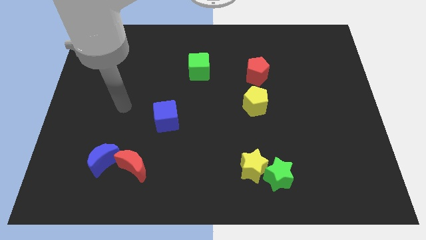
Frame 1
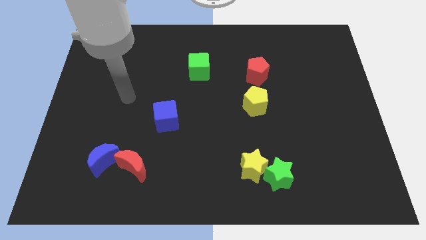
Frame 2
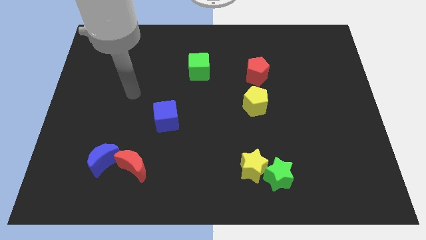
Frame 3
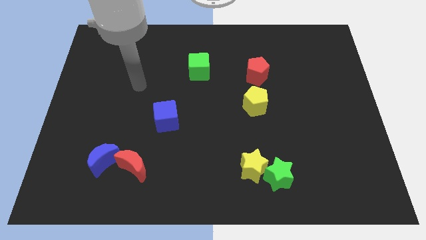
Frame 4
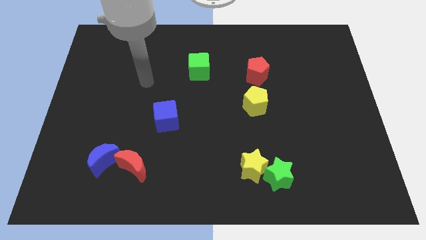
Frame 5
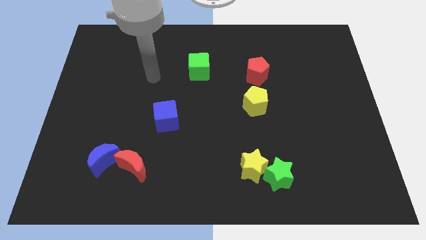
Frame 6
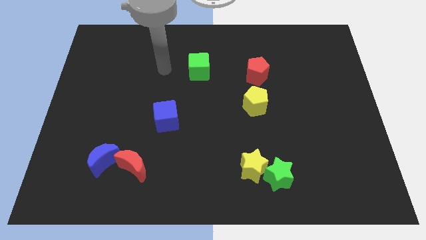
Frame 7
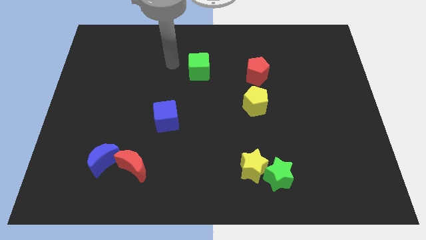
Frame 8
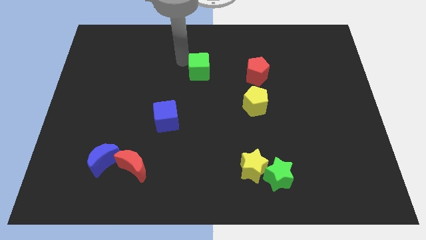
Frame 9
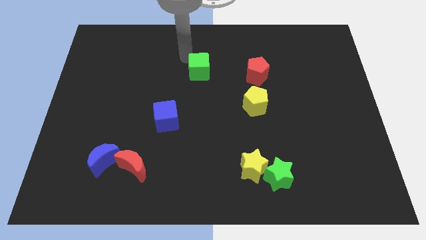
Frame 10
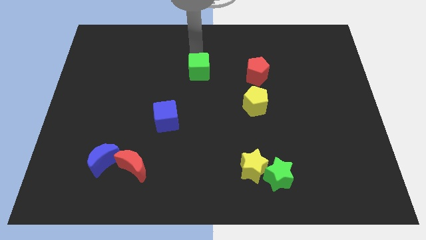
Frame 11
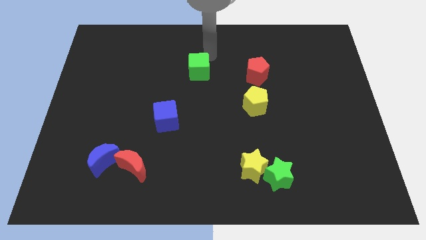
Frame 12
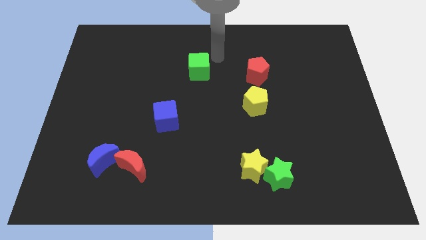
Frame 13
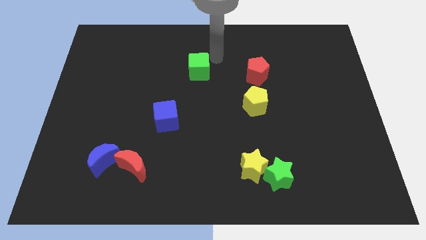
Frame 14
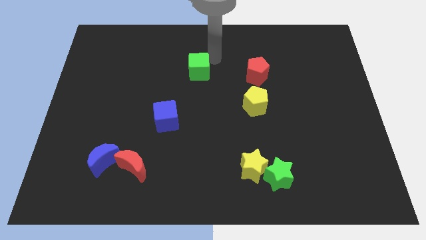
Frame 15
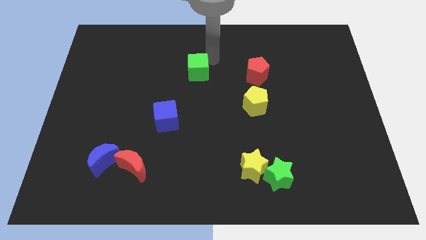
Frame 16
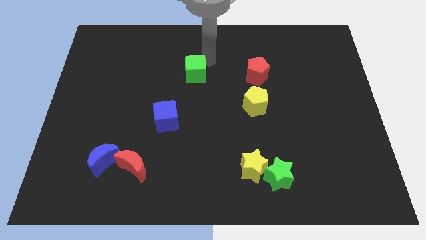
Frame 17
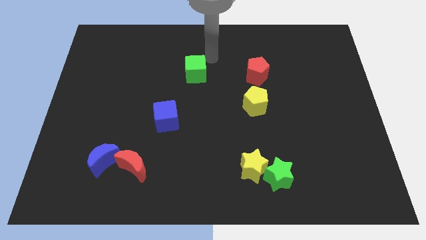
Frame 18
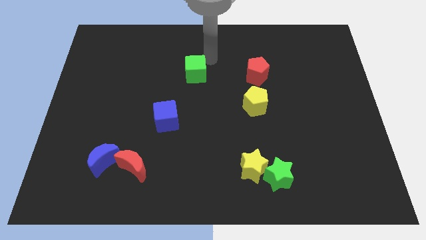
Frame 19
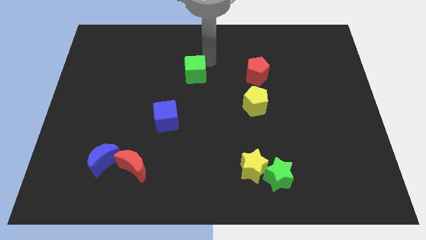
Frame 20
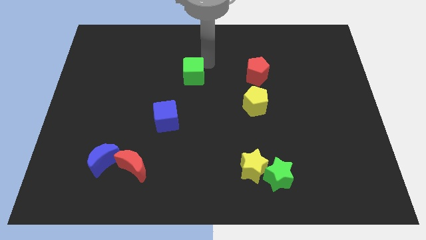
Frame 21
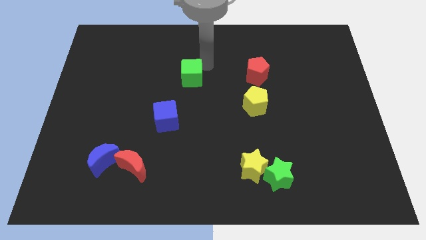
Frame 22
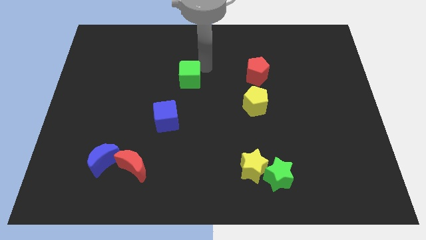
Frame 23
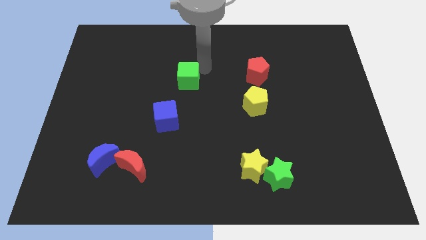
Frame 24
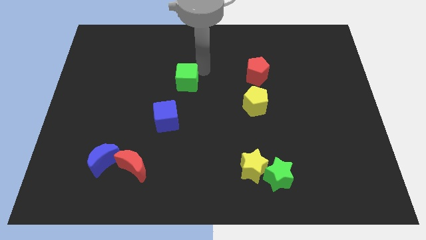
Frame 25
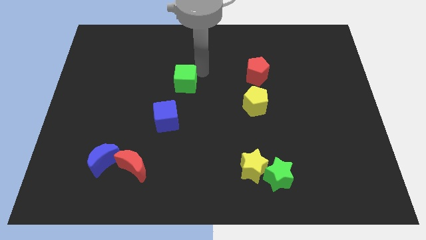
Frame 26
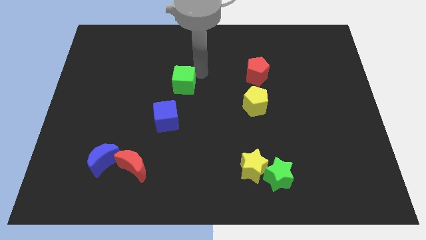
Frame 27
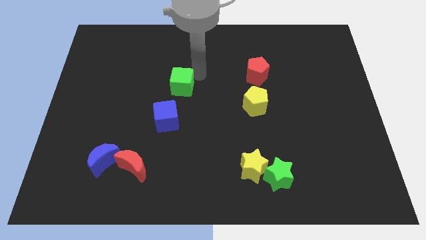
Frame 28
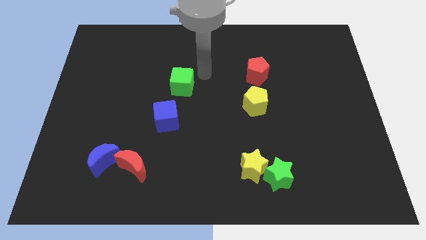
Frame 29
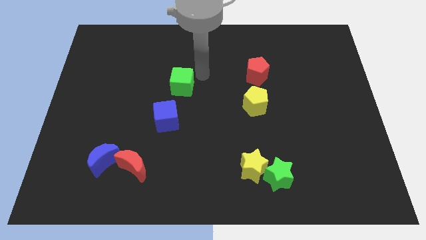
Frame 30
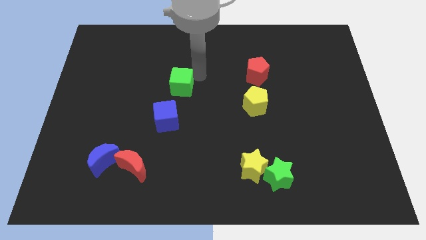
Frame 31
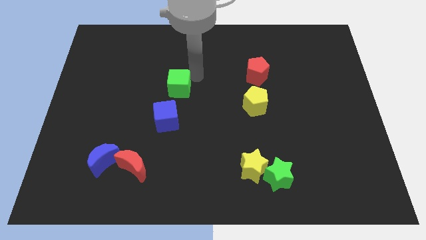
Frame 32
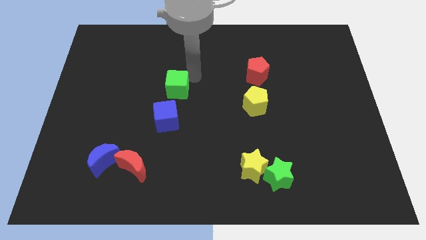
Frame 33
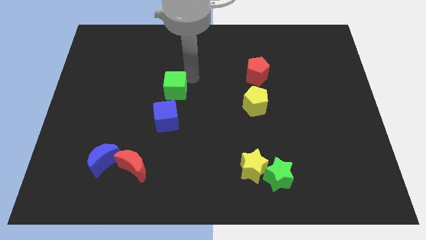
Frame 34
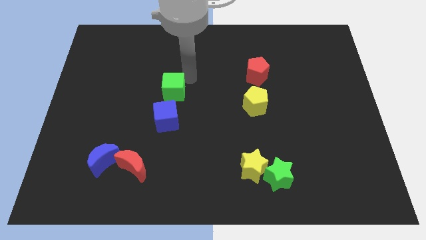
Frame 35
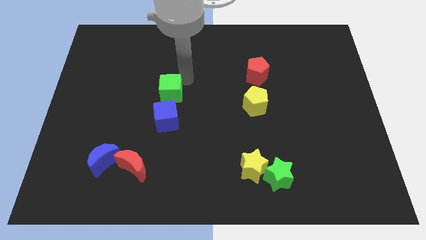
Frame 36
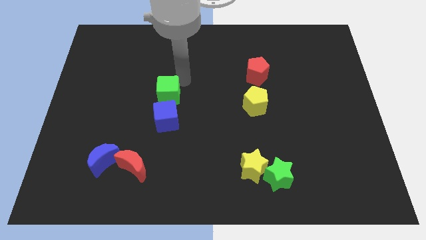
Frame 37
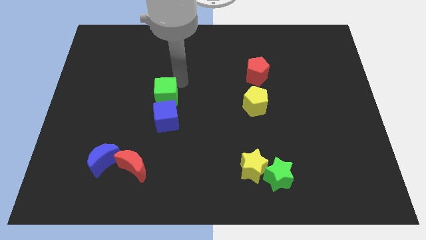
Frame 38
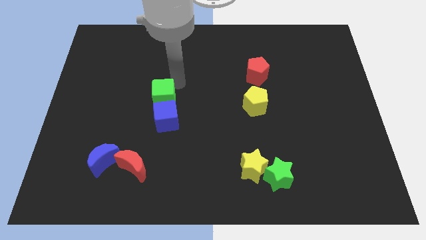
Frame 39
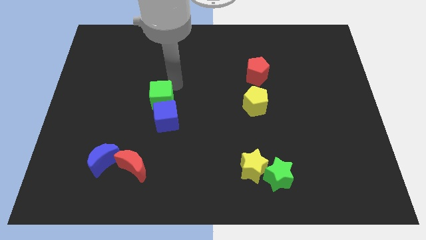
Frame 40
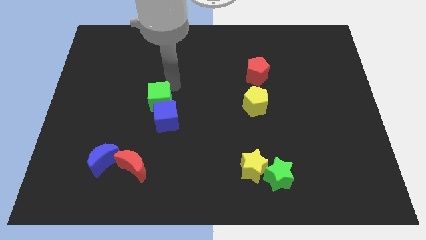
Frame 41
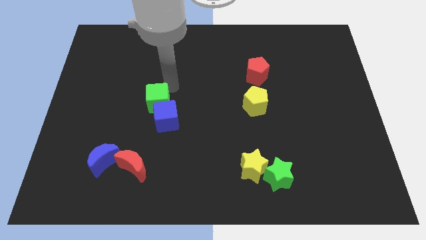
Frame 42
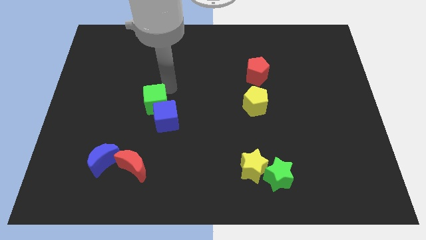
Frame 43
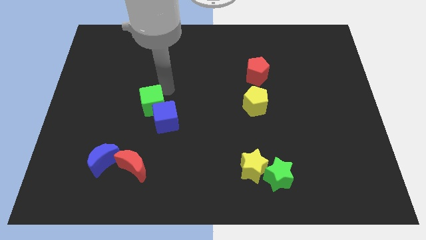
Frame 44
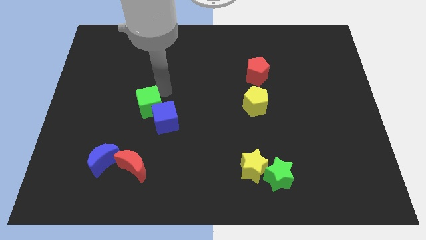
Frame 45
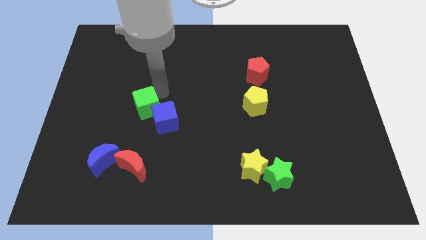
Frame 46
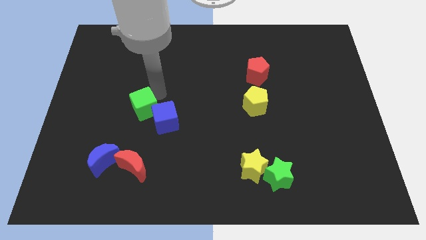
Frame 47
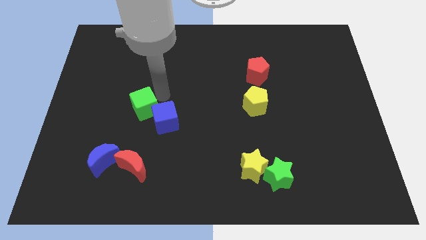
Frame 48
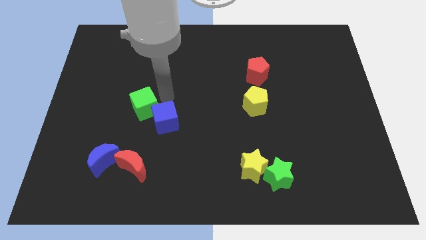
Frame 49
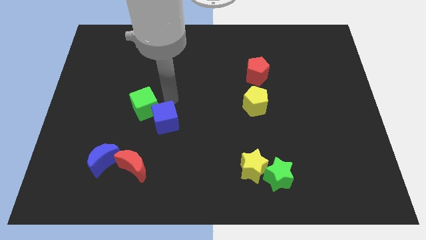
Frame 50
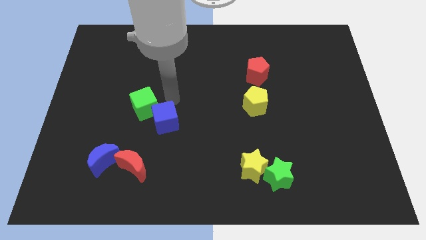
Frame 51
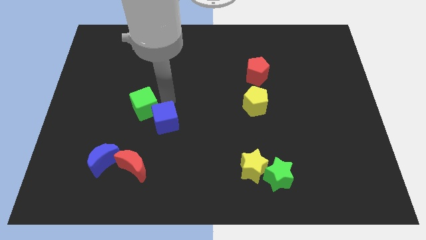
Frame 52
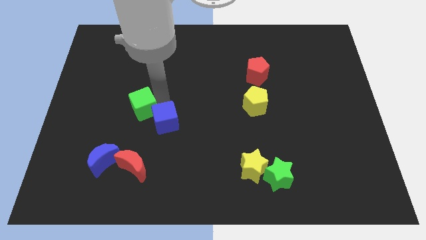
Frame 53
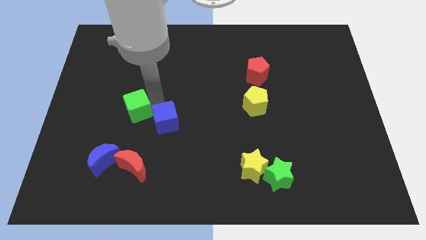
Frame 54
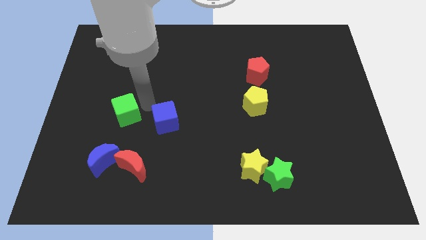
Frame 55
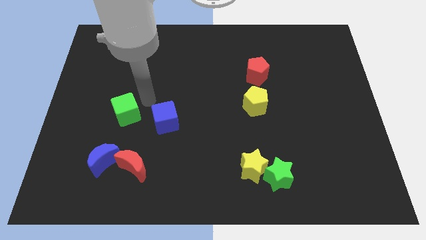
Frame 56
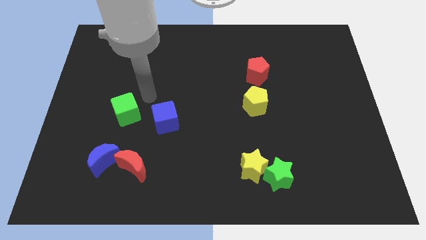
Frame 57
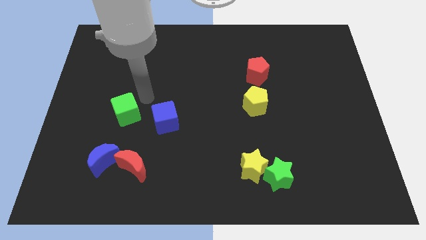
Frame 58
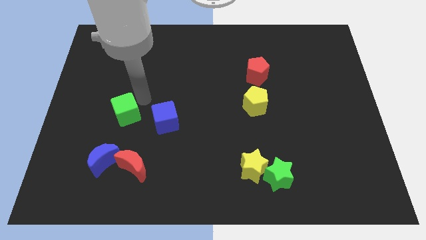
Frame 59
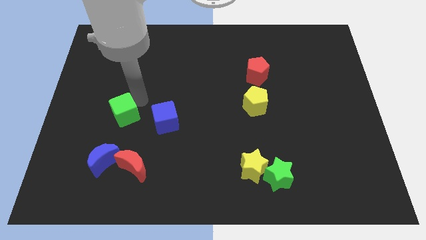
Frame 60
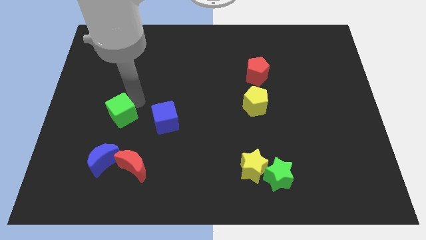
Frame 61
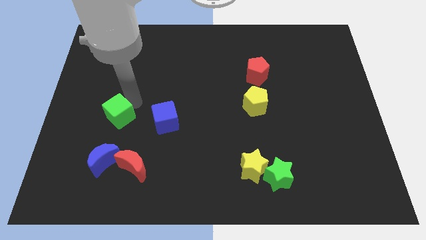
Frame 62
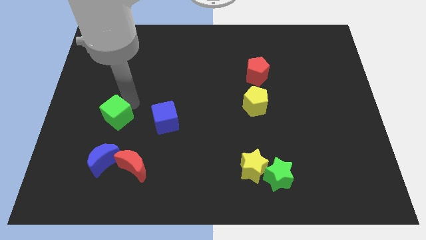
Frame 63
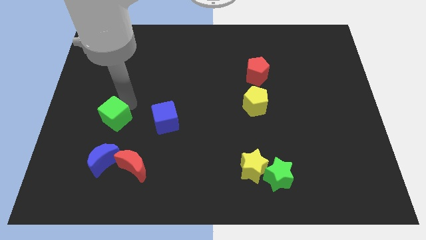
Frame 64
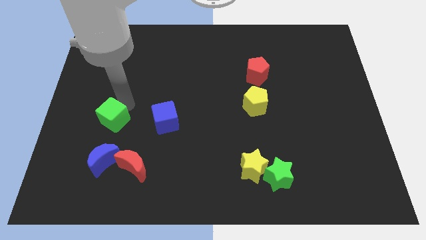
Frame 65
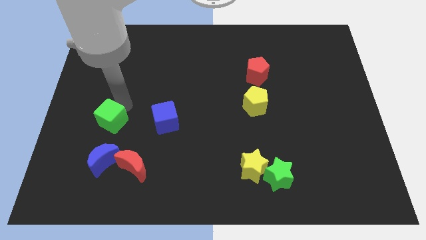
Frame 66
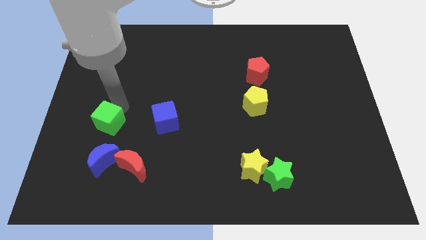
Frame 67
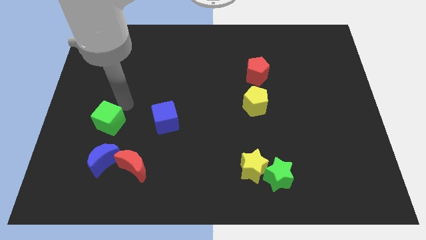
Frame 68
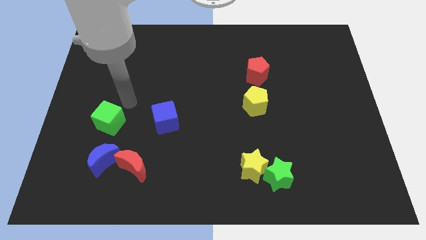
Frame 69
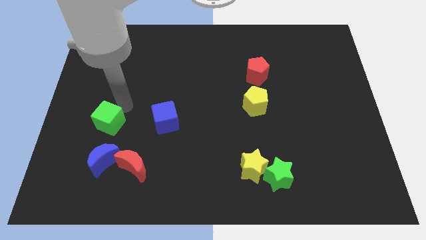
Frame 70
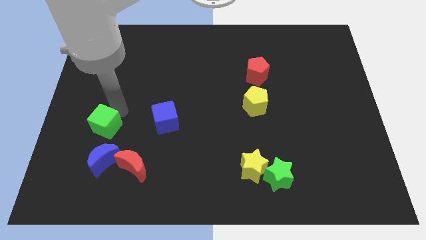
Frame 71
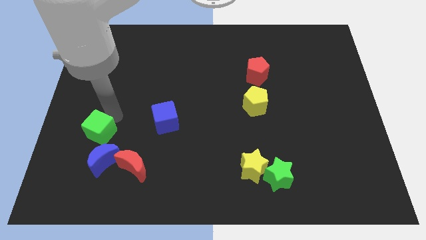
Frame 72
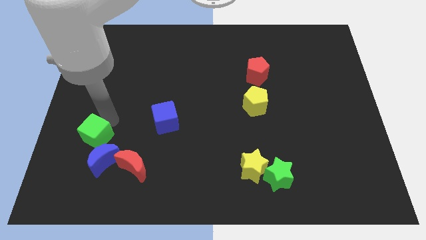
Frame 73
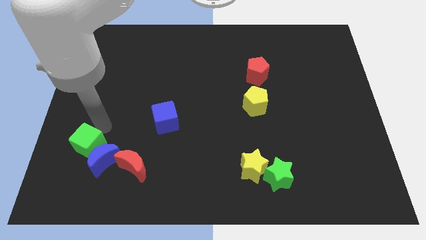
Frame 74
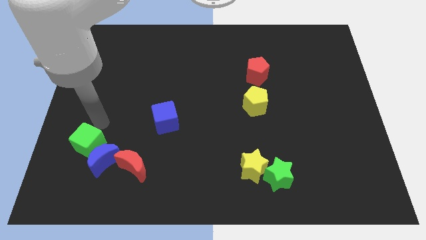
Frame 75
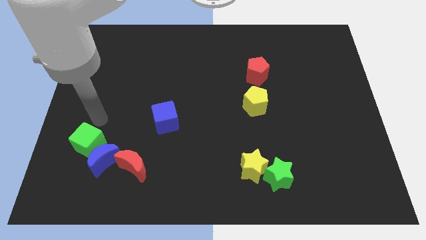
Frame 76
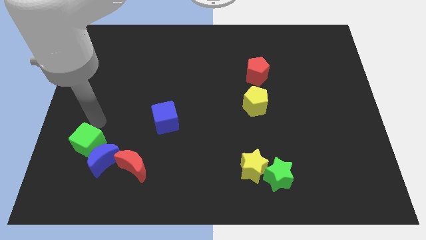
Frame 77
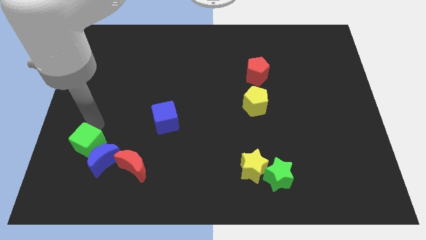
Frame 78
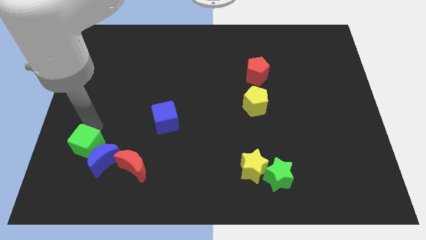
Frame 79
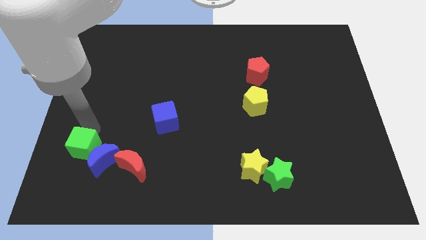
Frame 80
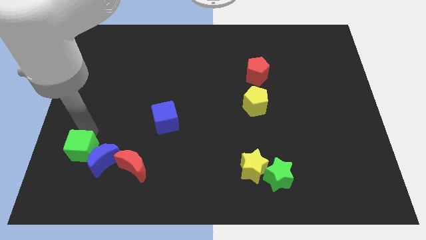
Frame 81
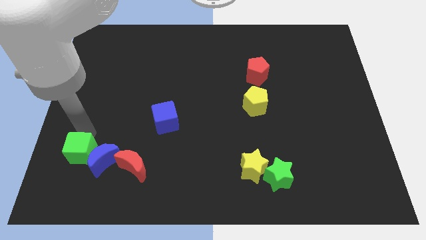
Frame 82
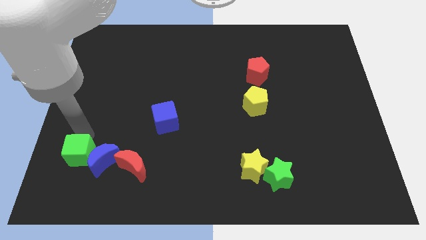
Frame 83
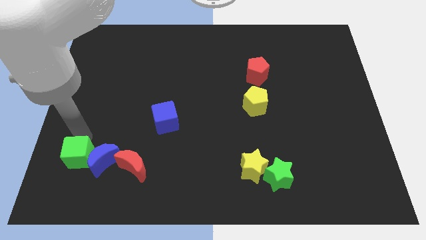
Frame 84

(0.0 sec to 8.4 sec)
put the green cube to the bottom left of the blue moon
